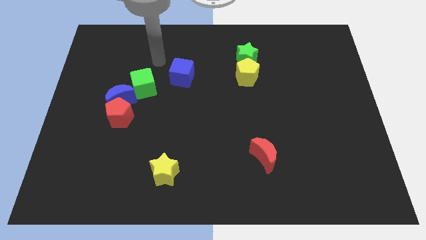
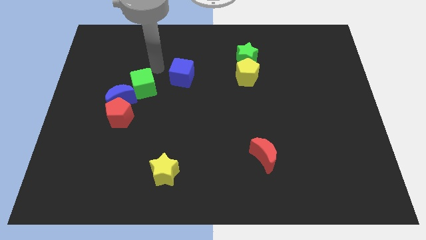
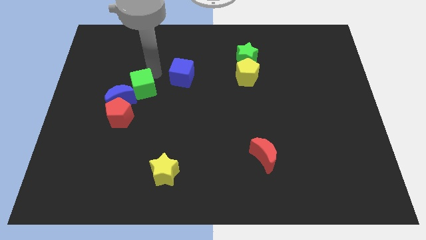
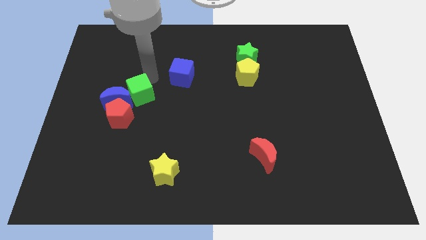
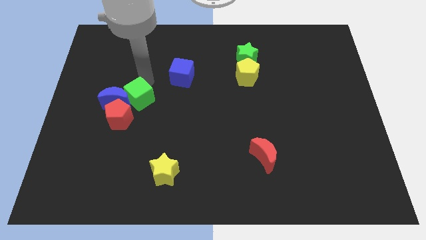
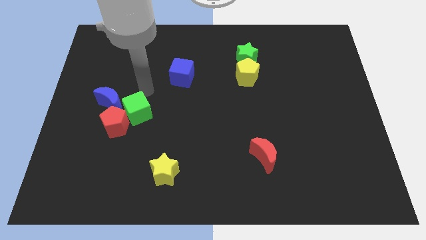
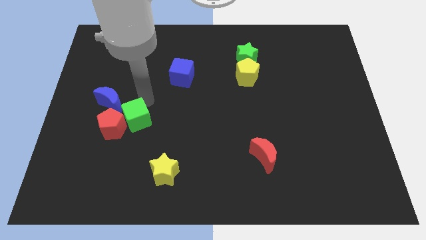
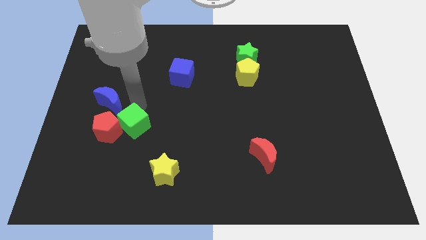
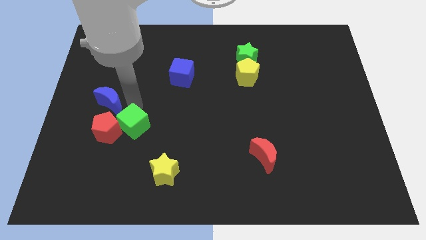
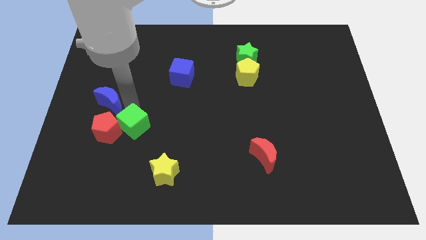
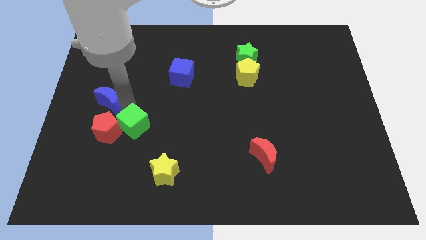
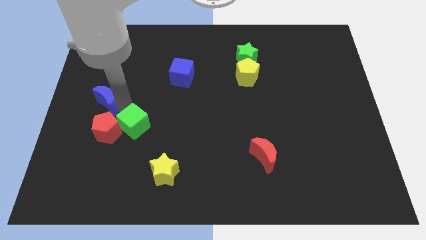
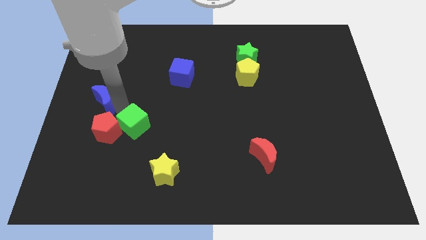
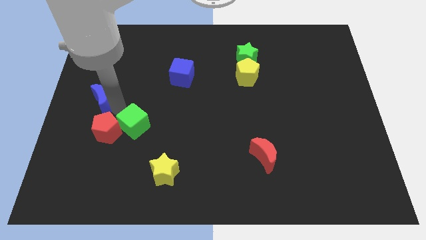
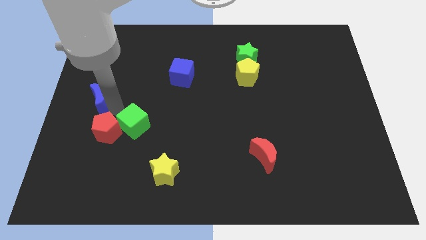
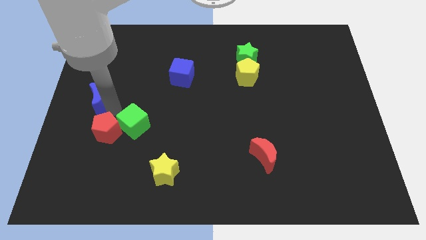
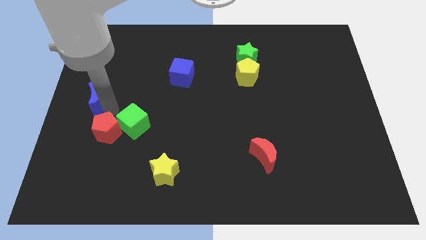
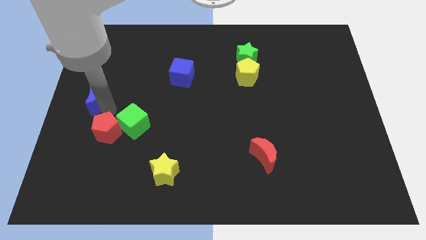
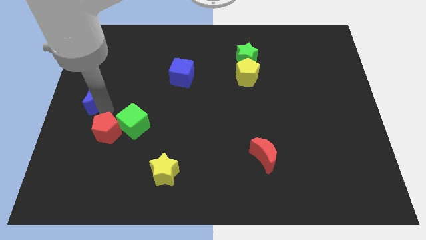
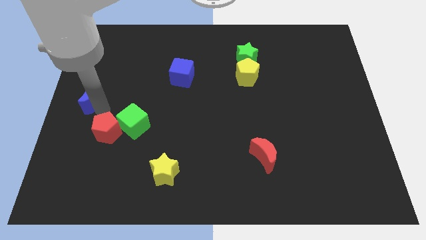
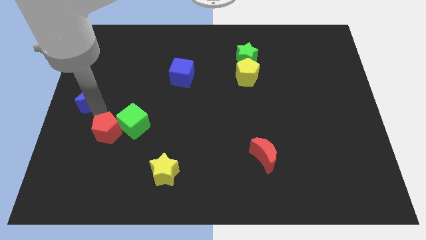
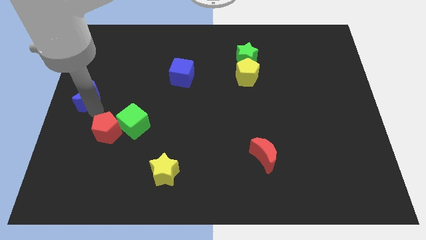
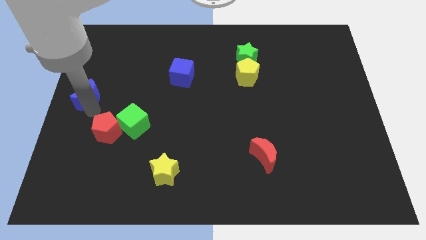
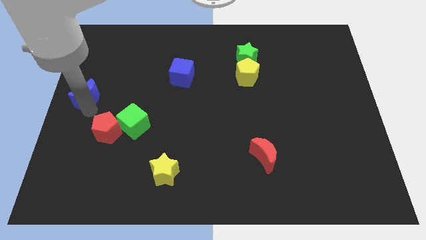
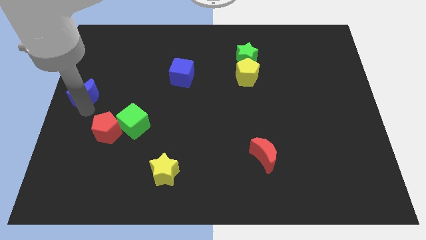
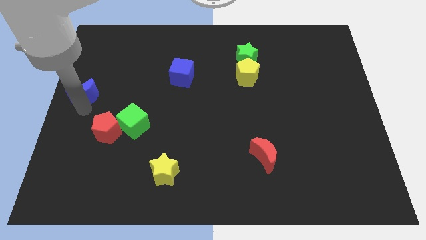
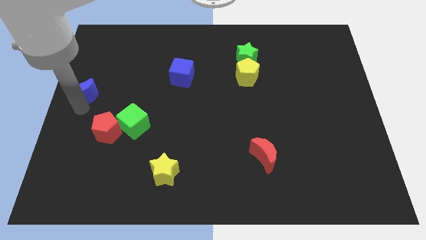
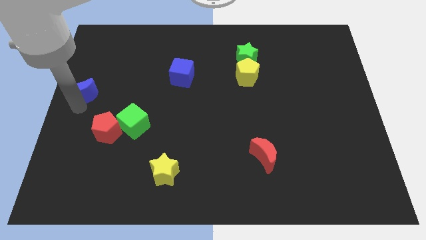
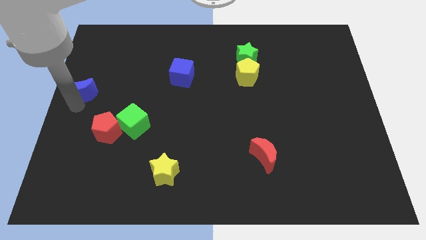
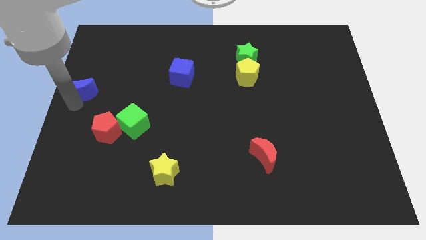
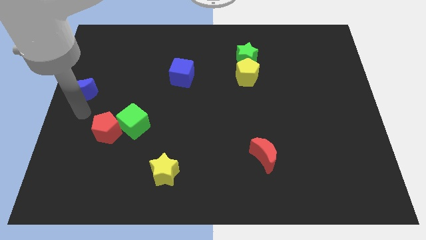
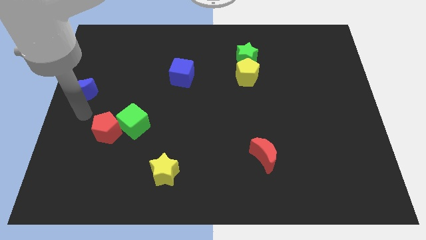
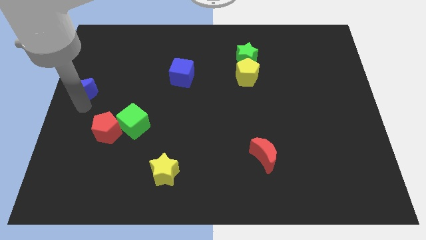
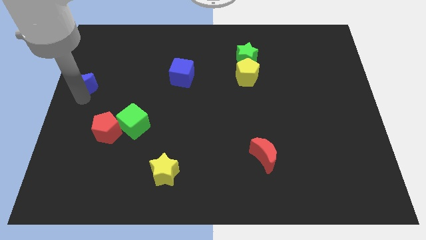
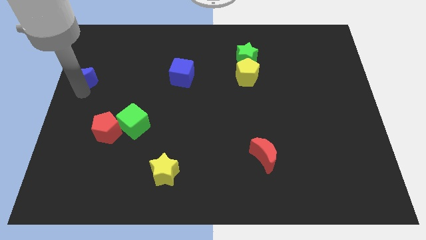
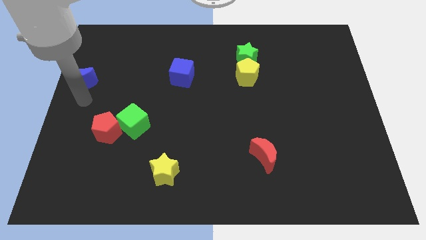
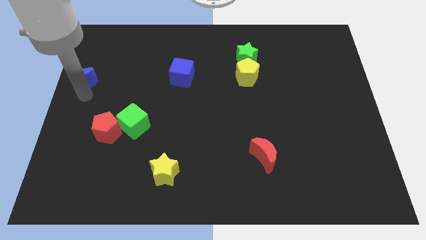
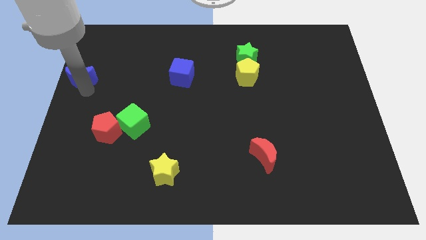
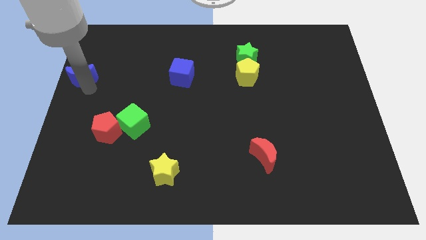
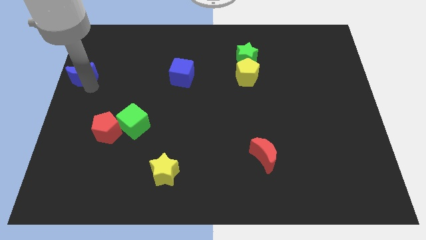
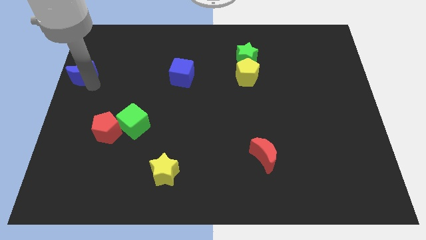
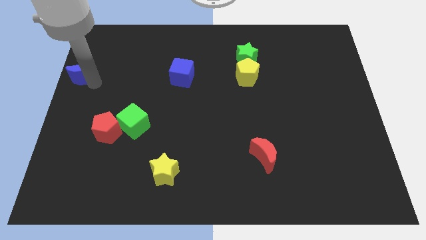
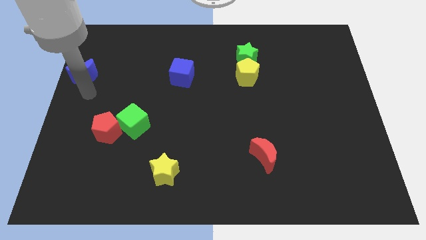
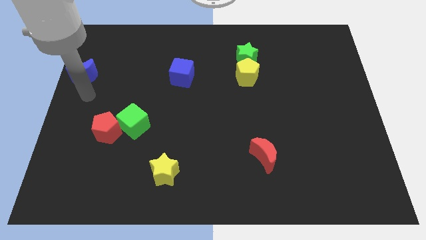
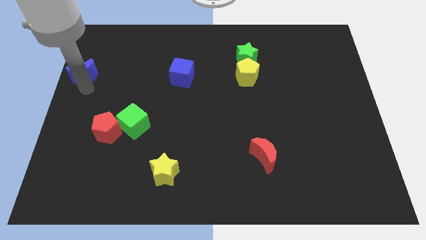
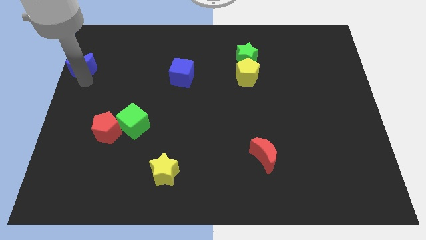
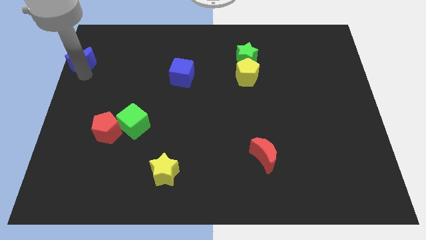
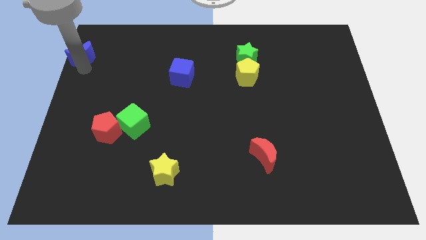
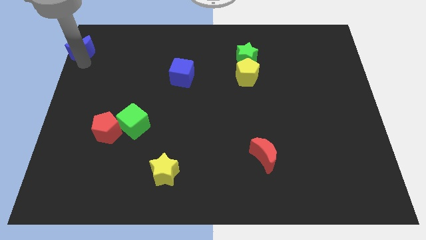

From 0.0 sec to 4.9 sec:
push the blue moon to the top left corner

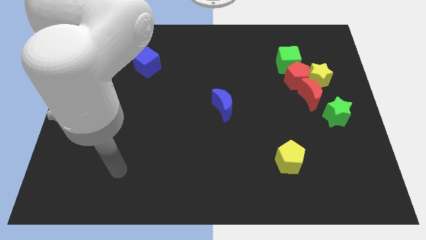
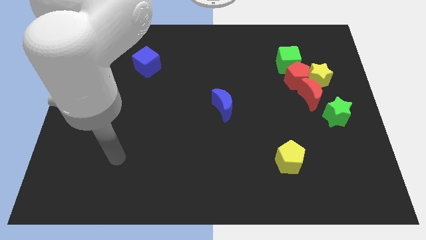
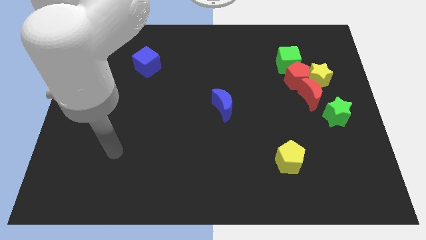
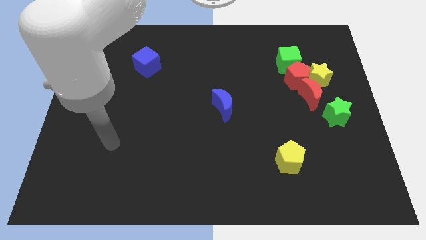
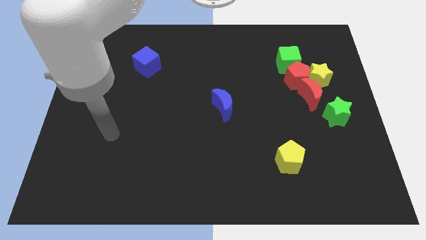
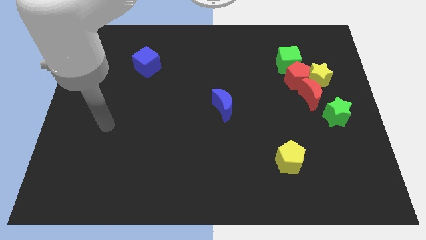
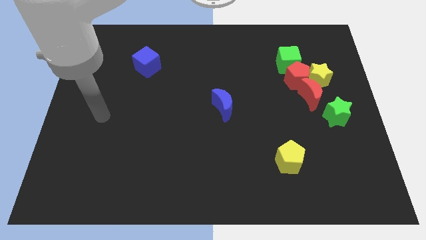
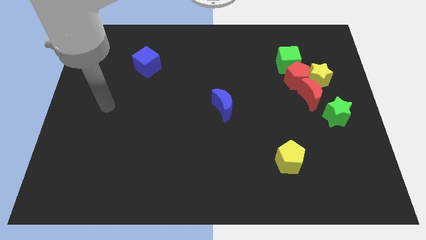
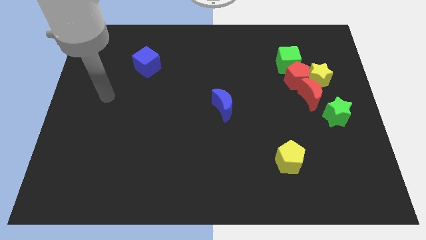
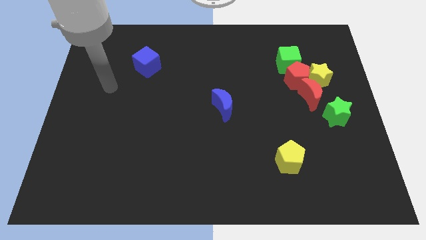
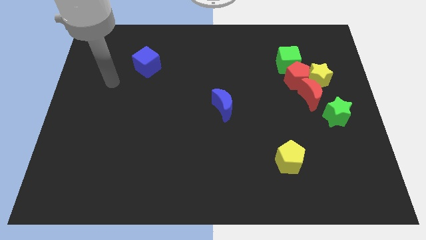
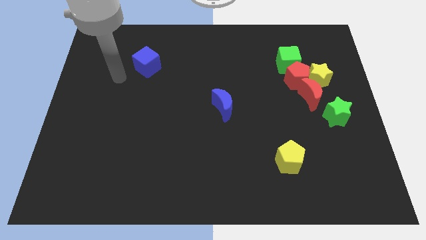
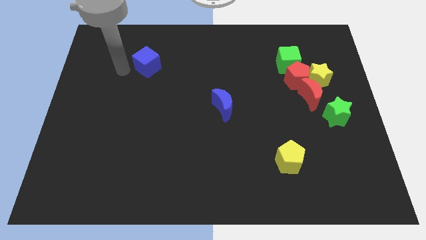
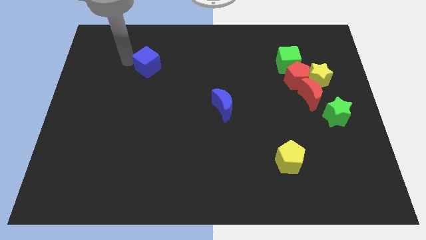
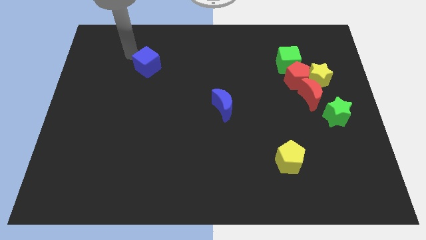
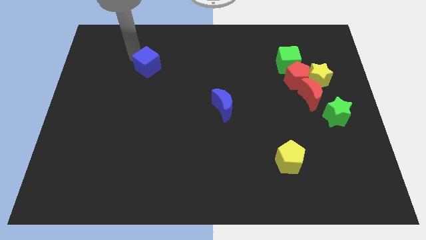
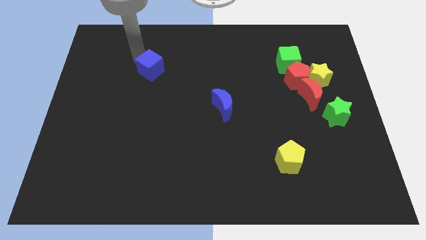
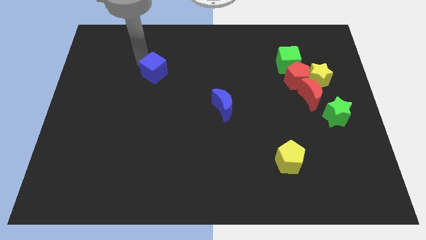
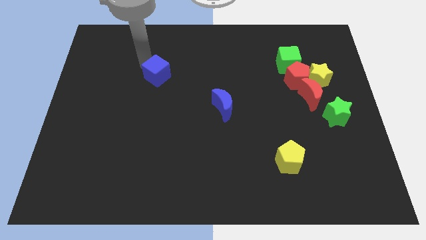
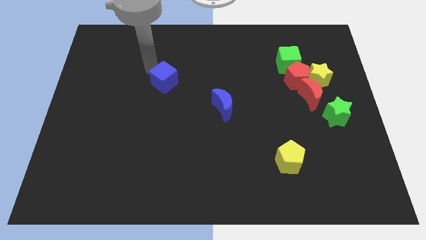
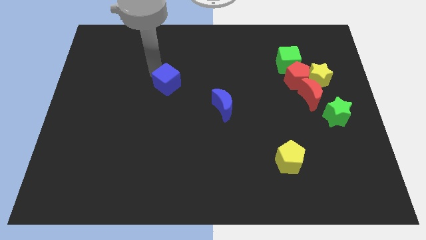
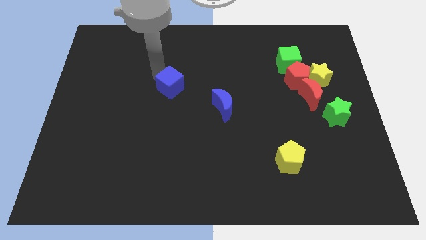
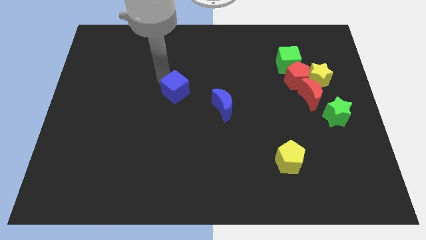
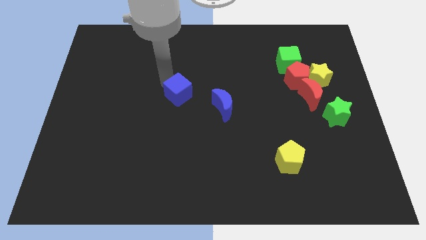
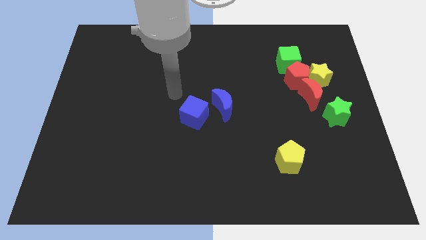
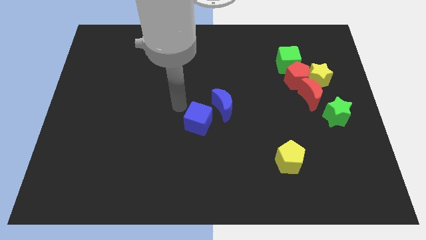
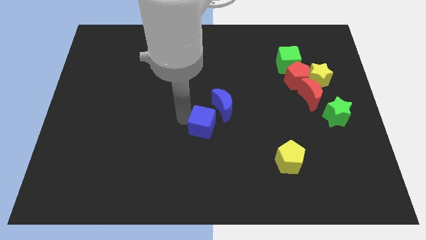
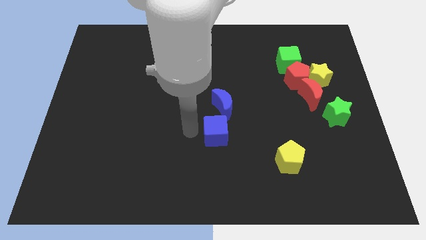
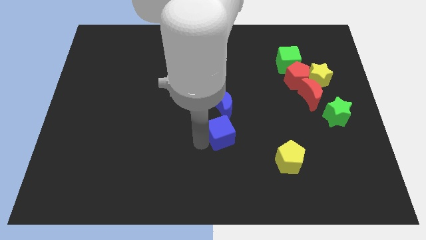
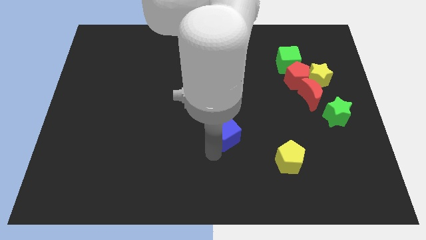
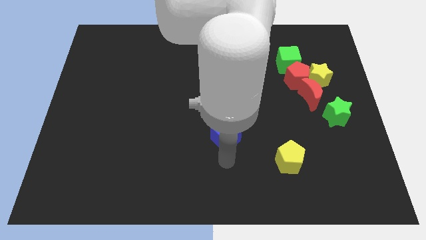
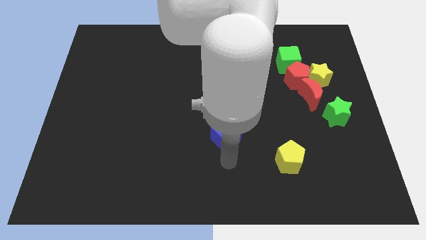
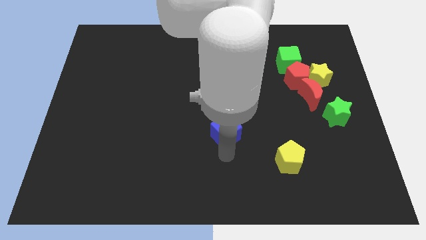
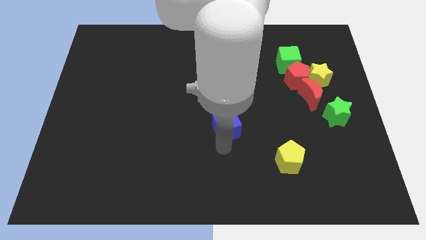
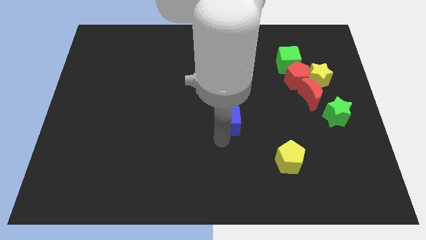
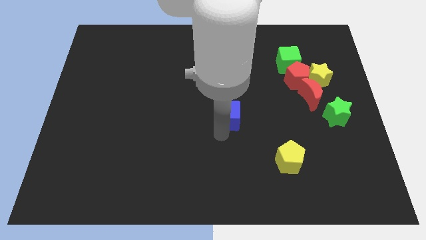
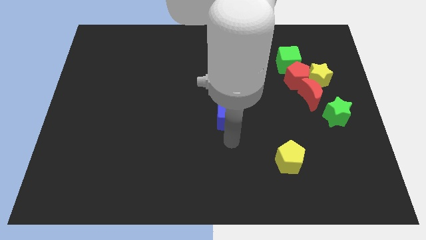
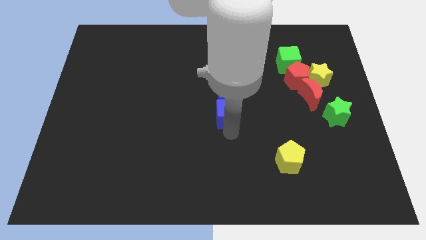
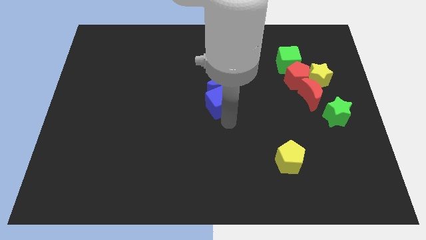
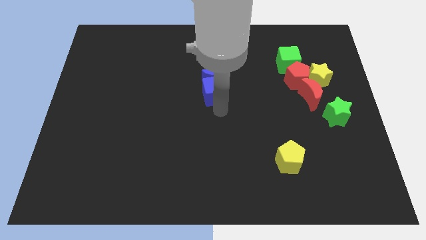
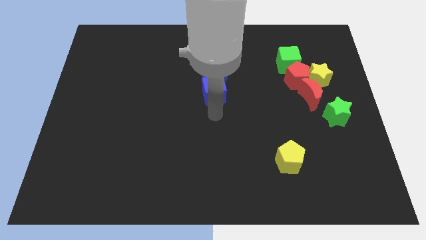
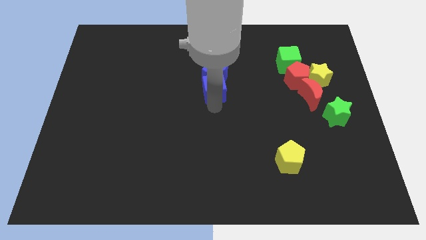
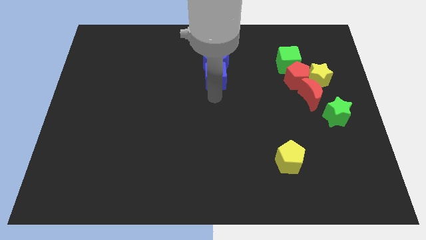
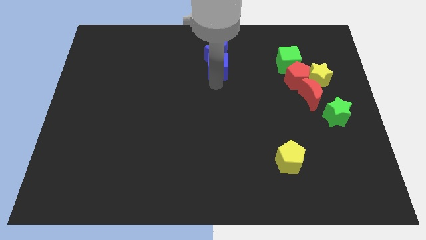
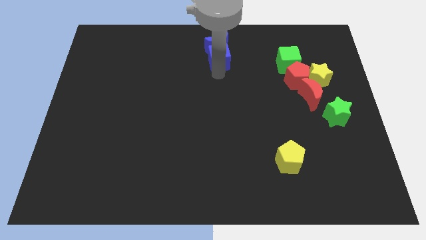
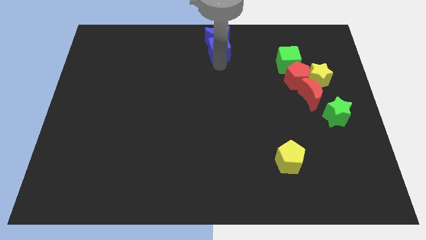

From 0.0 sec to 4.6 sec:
put the blue cube to the top
